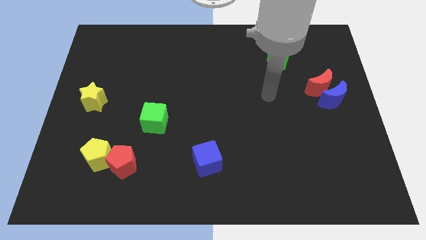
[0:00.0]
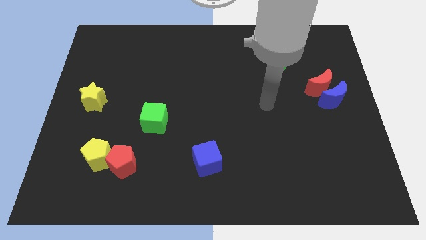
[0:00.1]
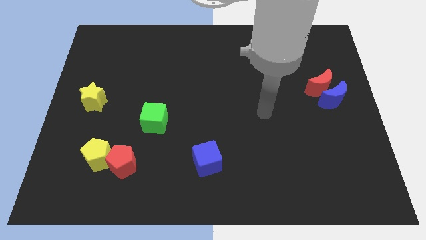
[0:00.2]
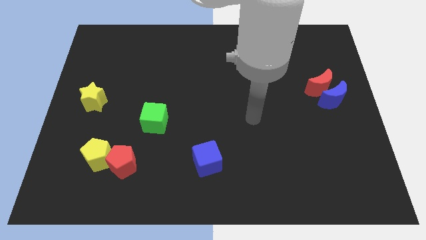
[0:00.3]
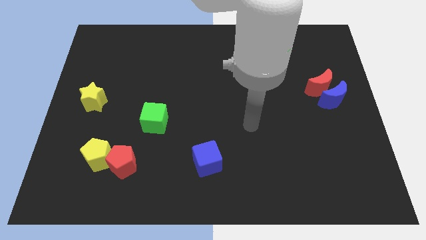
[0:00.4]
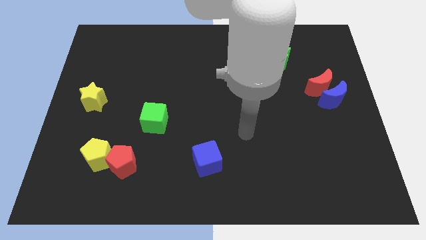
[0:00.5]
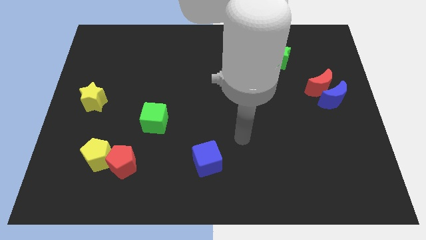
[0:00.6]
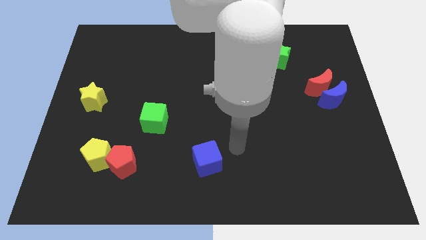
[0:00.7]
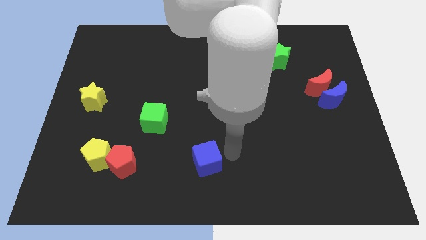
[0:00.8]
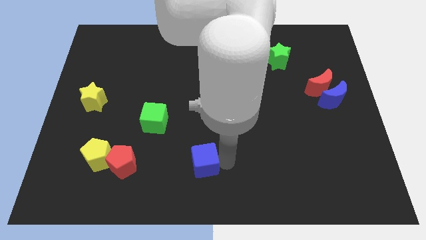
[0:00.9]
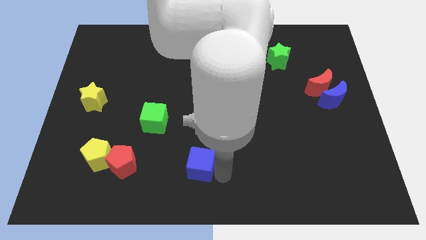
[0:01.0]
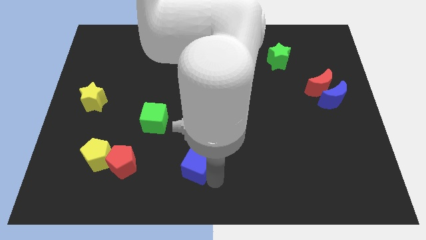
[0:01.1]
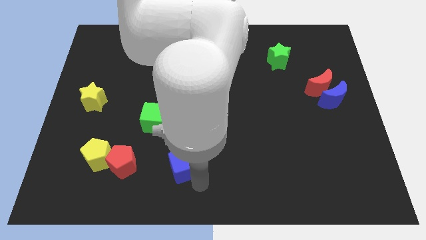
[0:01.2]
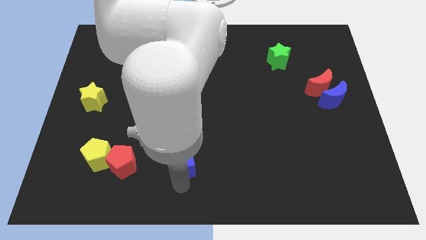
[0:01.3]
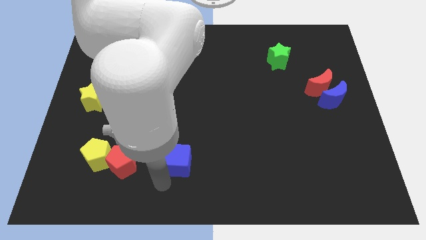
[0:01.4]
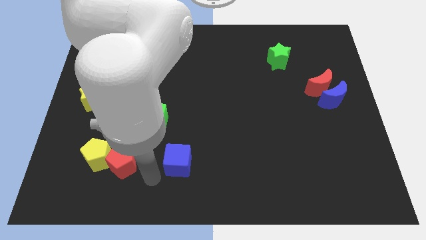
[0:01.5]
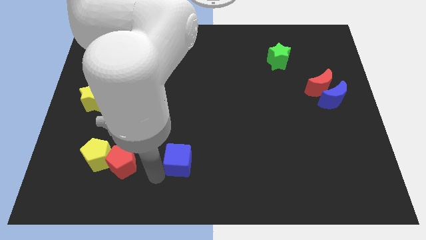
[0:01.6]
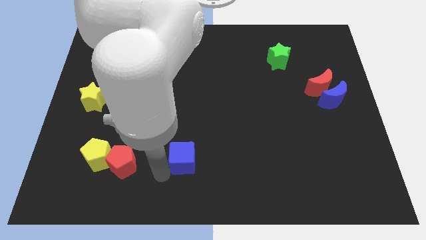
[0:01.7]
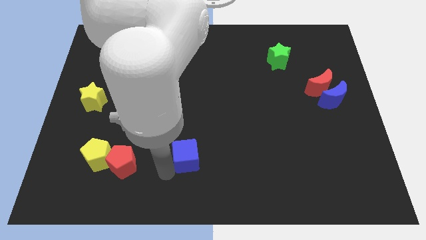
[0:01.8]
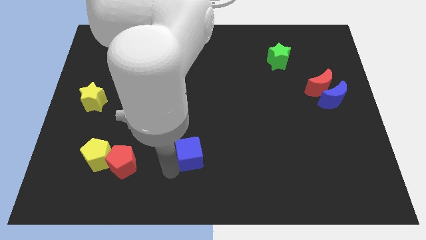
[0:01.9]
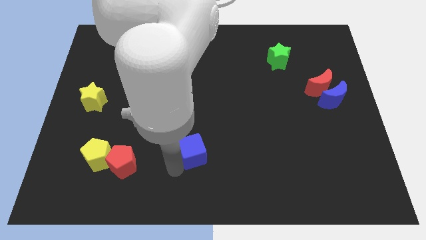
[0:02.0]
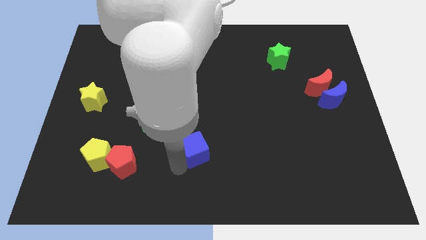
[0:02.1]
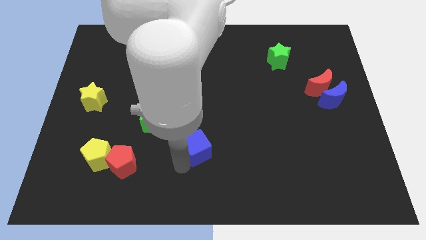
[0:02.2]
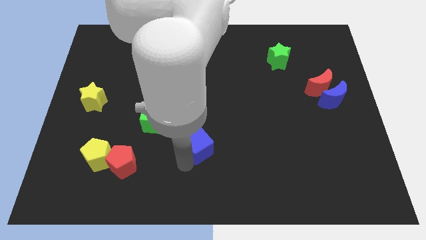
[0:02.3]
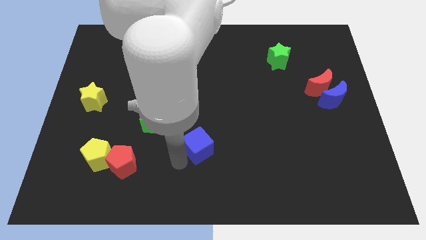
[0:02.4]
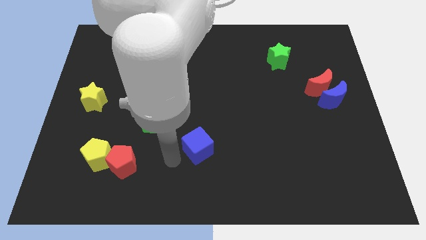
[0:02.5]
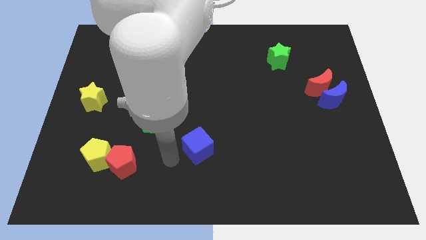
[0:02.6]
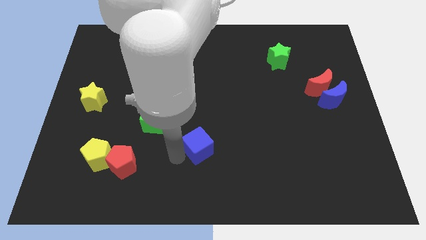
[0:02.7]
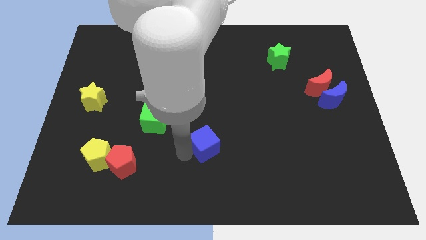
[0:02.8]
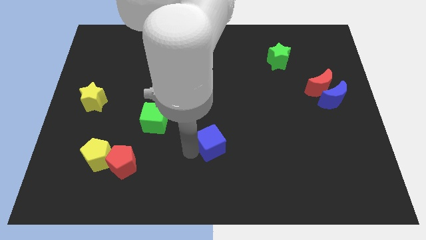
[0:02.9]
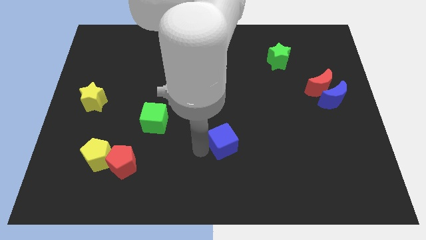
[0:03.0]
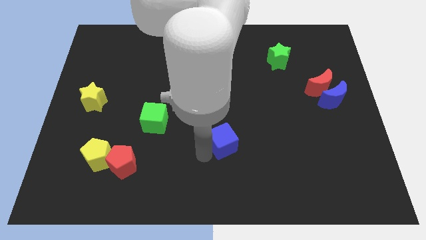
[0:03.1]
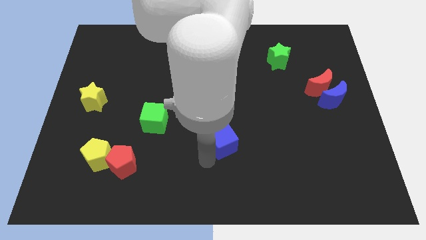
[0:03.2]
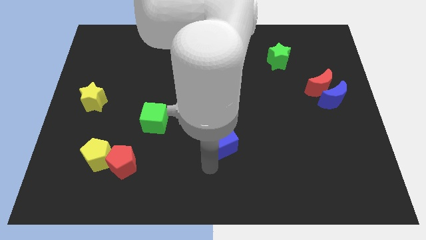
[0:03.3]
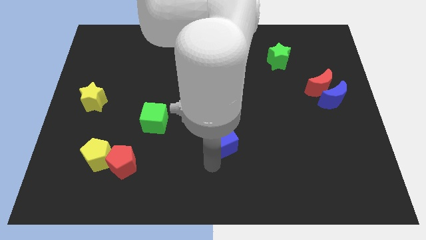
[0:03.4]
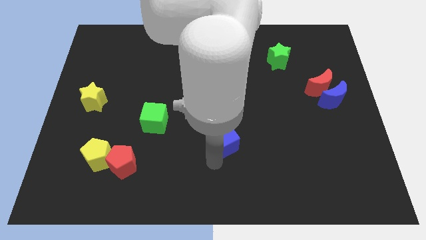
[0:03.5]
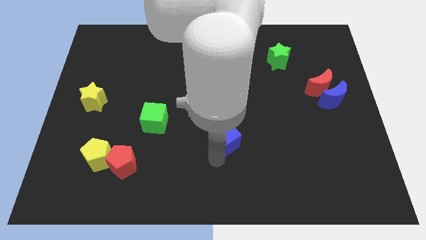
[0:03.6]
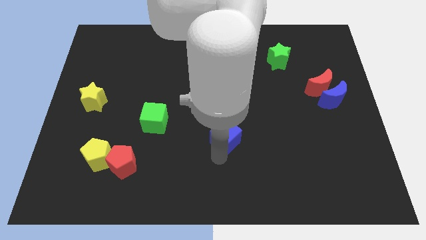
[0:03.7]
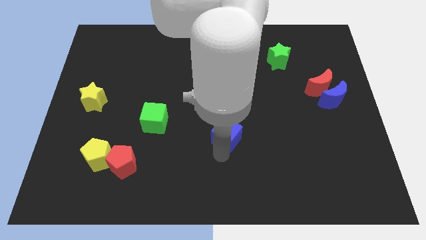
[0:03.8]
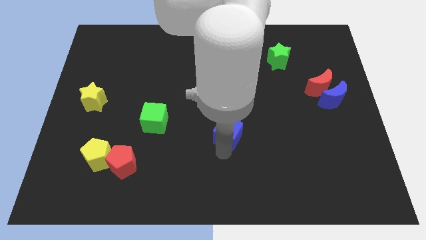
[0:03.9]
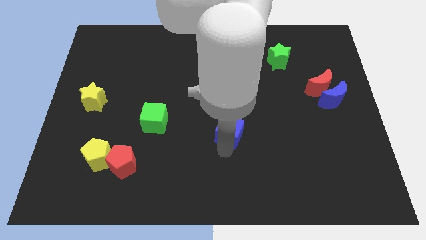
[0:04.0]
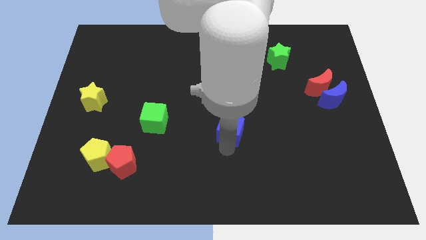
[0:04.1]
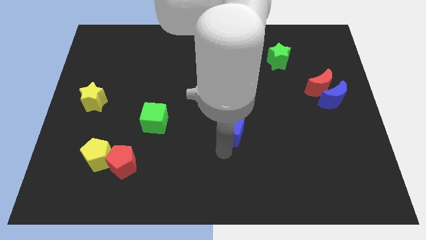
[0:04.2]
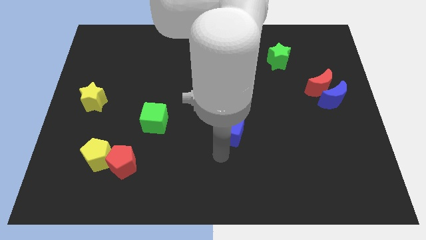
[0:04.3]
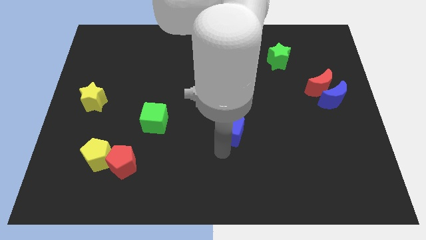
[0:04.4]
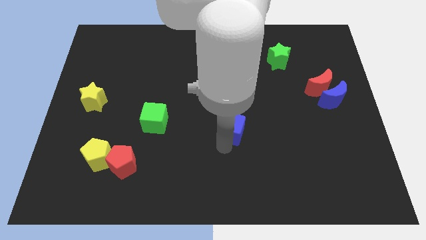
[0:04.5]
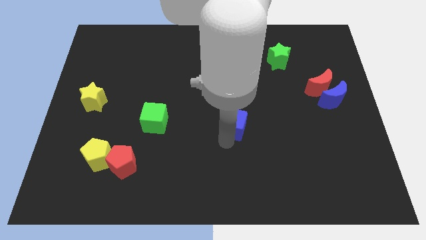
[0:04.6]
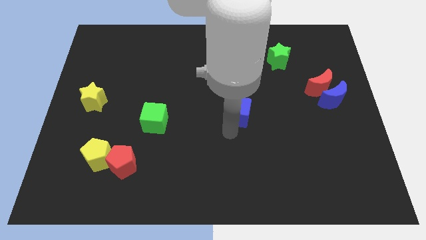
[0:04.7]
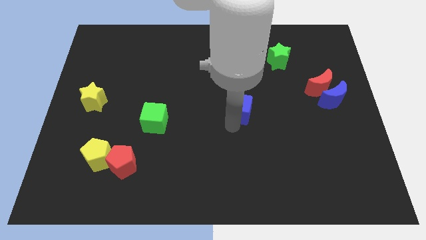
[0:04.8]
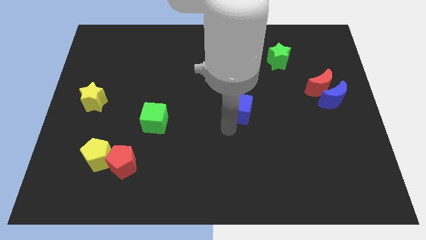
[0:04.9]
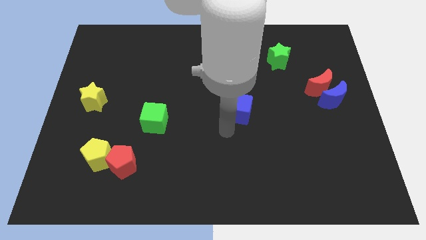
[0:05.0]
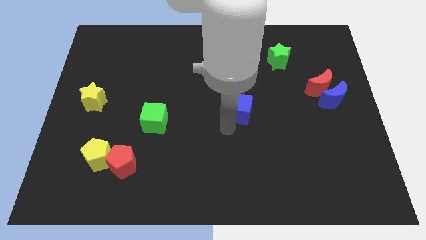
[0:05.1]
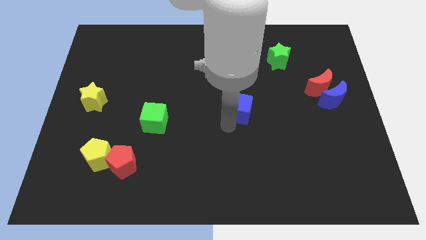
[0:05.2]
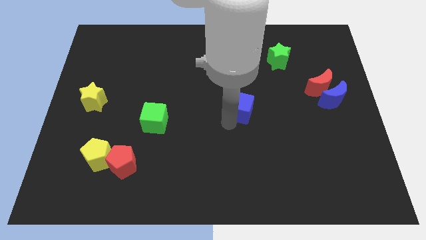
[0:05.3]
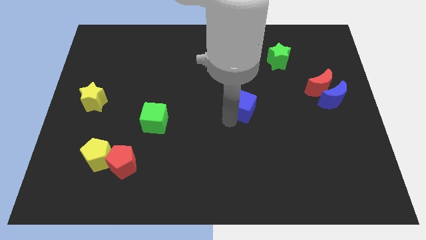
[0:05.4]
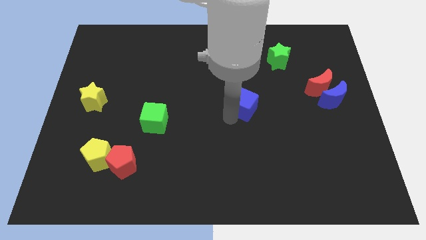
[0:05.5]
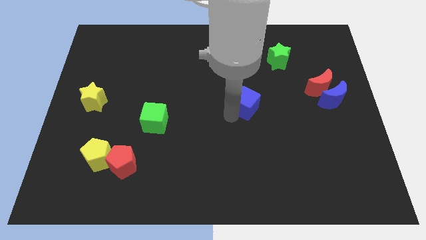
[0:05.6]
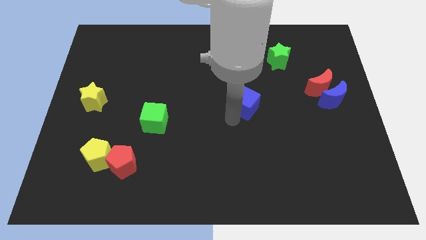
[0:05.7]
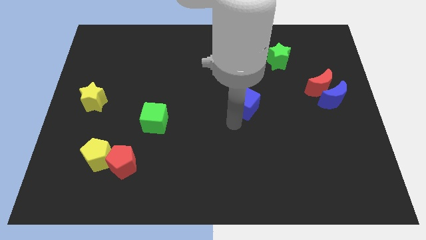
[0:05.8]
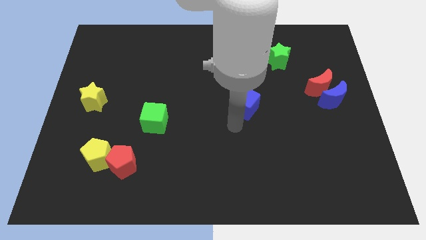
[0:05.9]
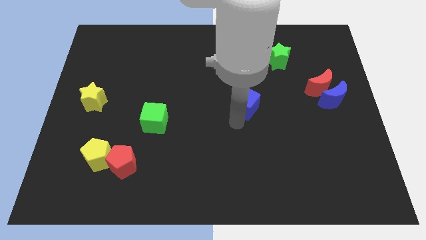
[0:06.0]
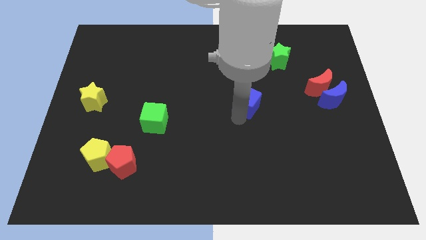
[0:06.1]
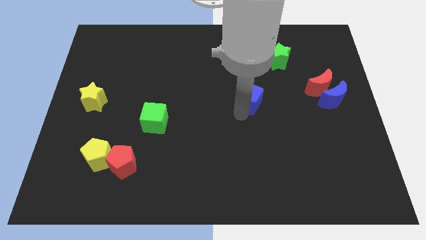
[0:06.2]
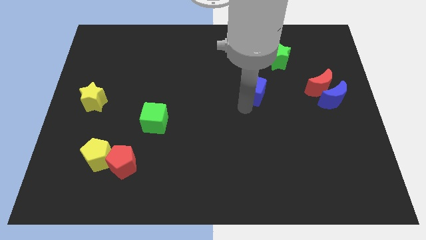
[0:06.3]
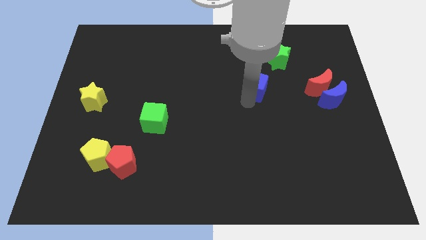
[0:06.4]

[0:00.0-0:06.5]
put the blue cube to the bottom left of the green star
